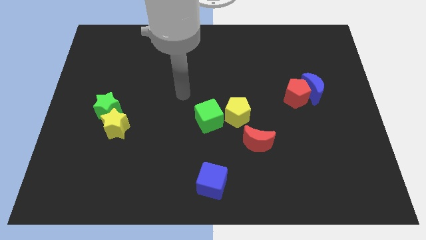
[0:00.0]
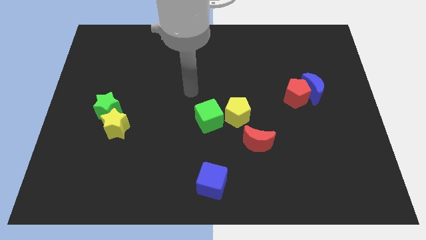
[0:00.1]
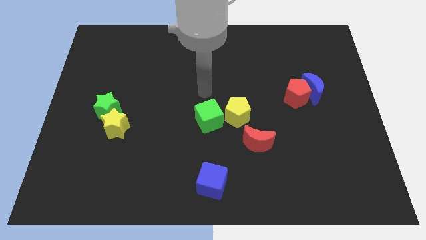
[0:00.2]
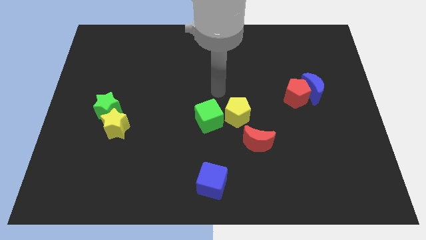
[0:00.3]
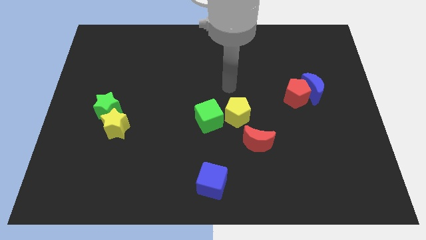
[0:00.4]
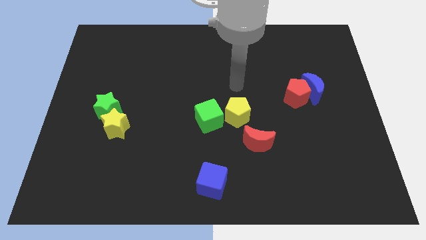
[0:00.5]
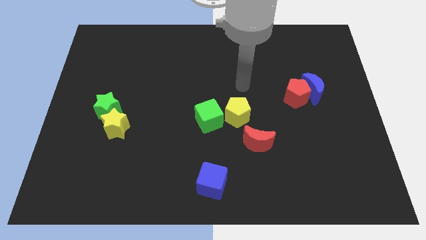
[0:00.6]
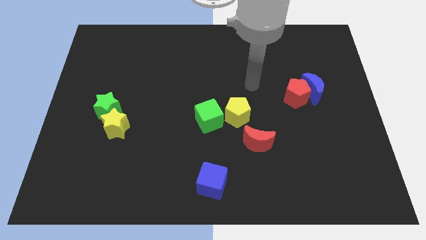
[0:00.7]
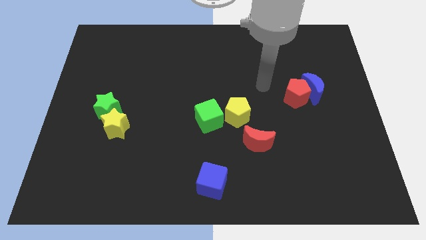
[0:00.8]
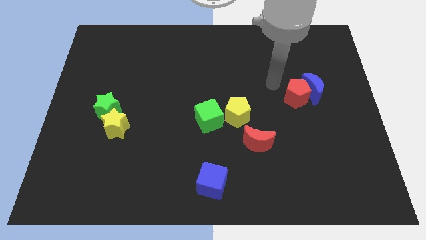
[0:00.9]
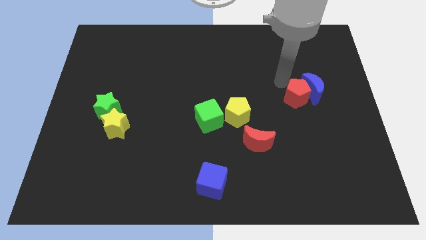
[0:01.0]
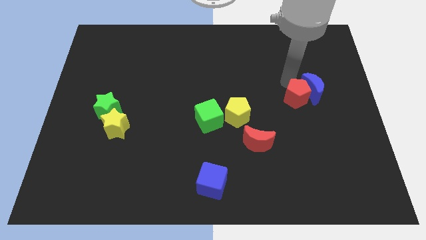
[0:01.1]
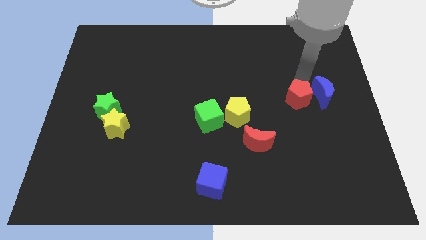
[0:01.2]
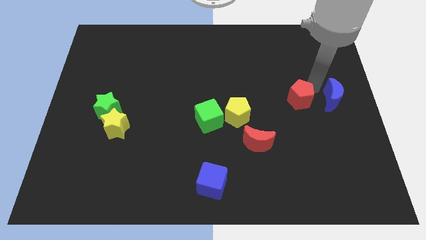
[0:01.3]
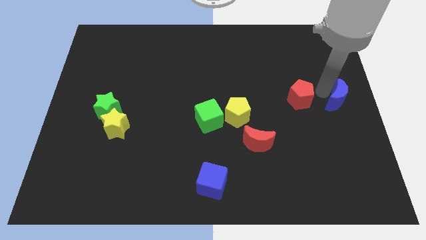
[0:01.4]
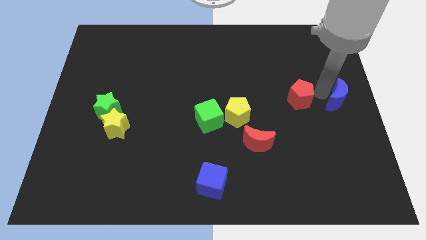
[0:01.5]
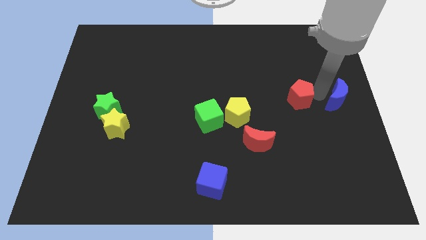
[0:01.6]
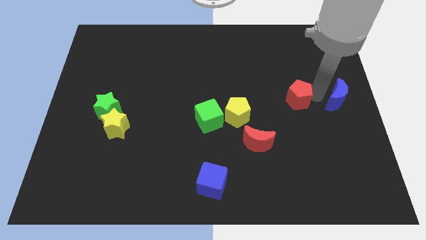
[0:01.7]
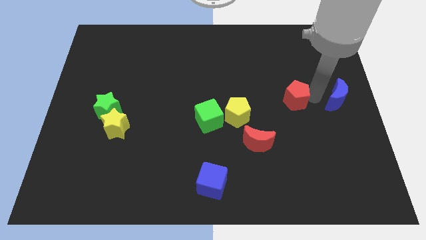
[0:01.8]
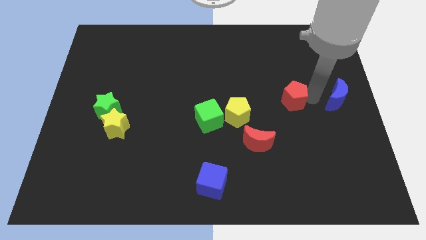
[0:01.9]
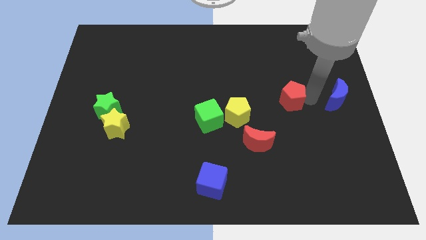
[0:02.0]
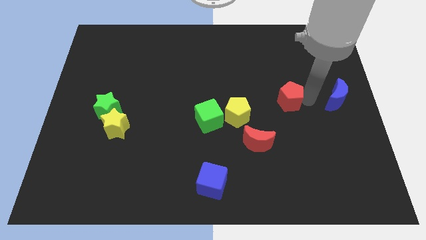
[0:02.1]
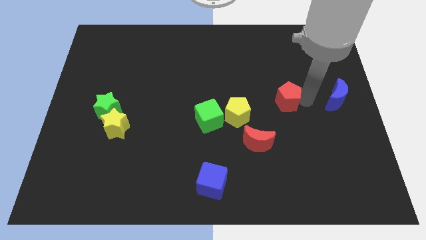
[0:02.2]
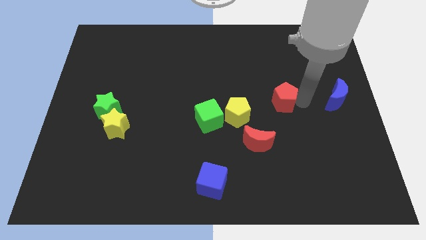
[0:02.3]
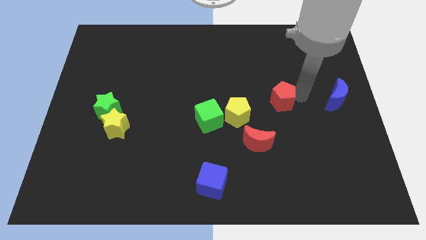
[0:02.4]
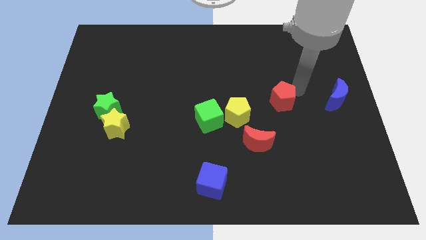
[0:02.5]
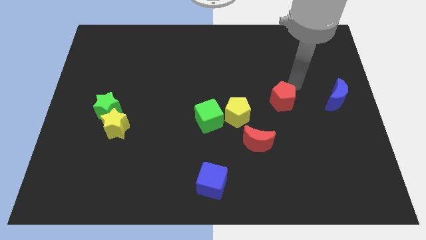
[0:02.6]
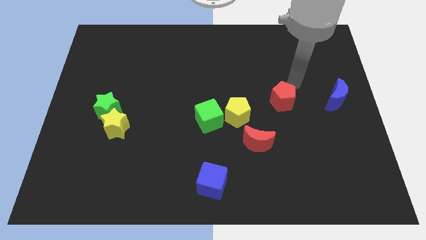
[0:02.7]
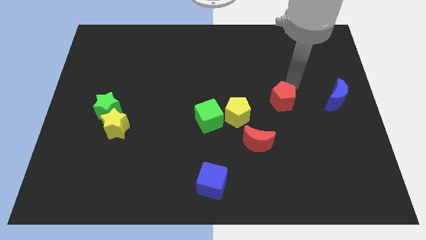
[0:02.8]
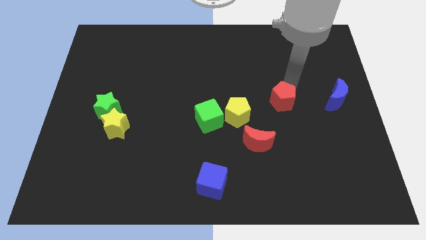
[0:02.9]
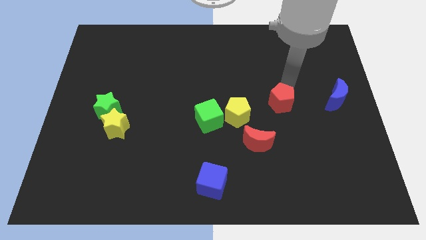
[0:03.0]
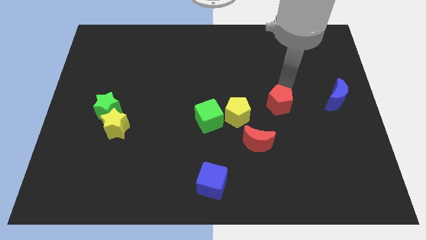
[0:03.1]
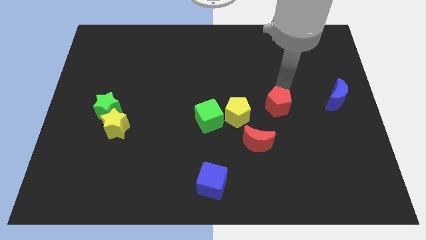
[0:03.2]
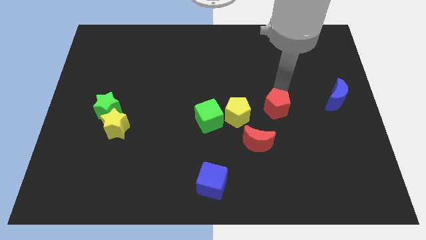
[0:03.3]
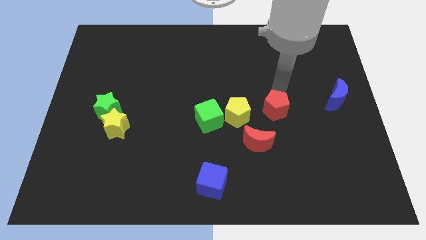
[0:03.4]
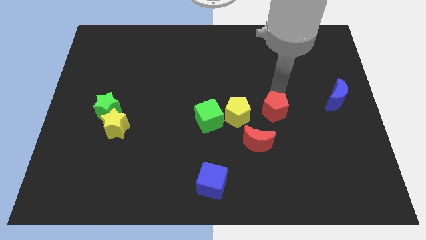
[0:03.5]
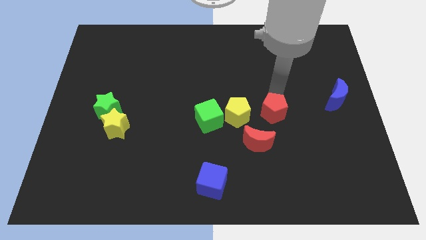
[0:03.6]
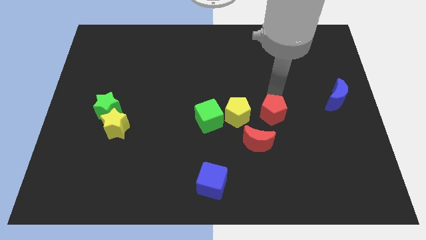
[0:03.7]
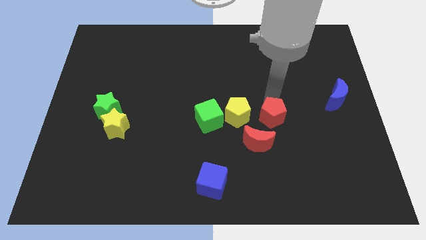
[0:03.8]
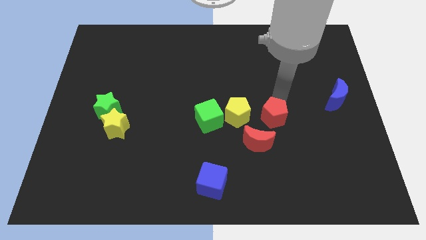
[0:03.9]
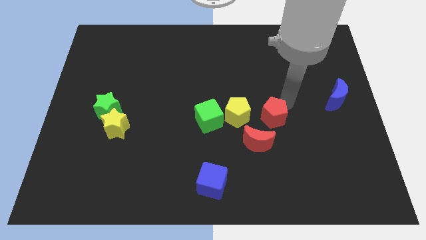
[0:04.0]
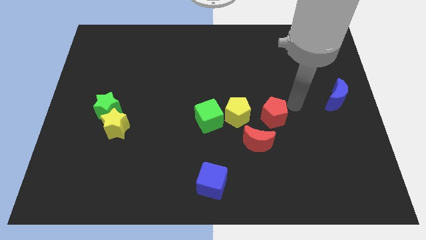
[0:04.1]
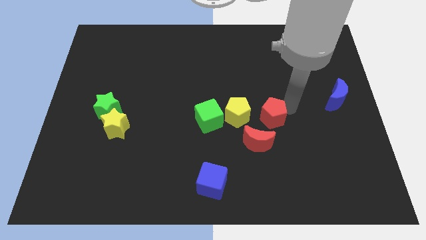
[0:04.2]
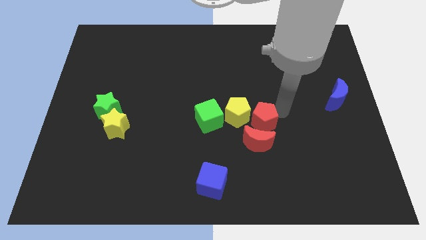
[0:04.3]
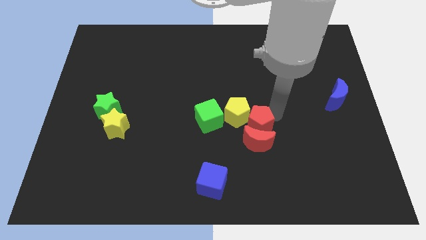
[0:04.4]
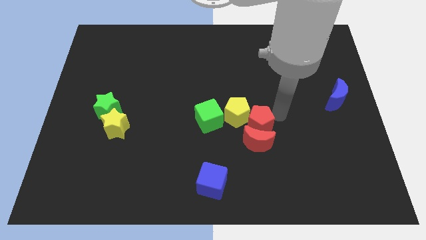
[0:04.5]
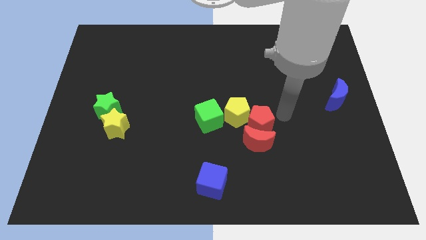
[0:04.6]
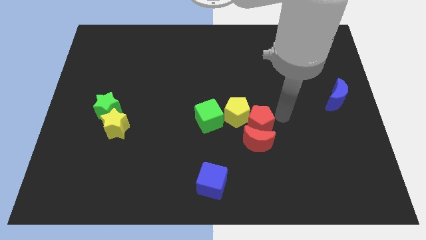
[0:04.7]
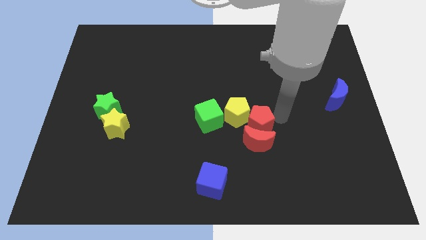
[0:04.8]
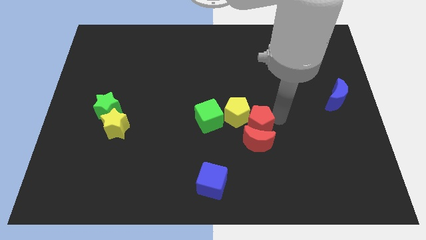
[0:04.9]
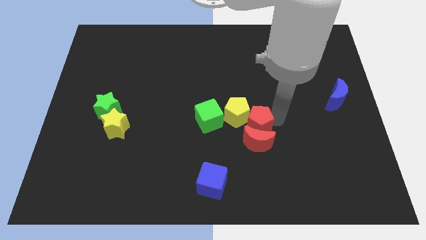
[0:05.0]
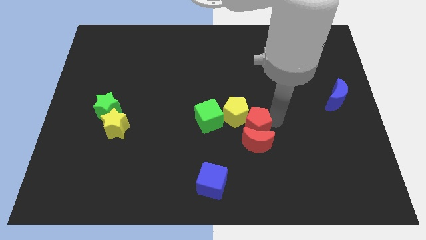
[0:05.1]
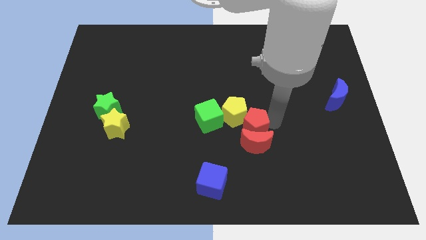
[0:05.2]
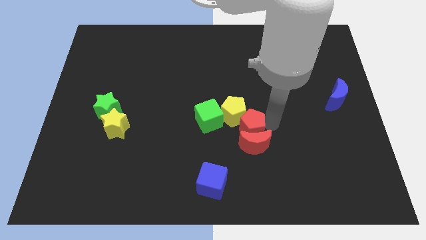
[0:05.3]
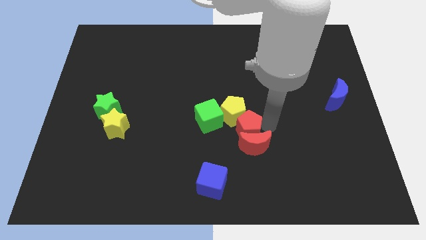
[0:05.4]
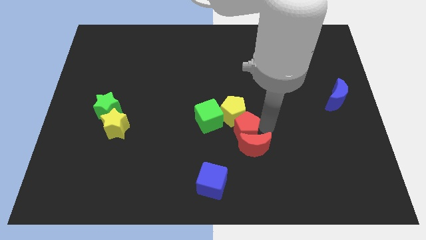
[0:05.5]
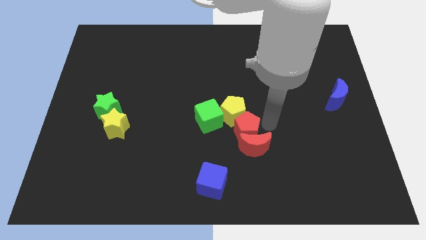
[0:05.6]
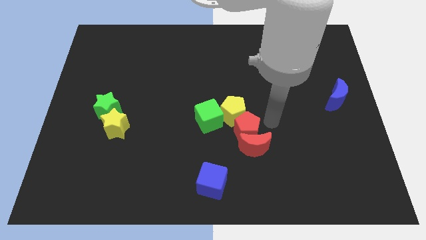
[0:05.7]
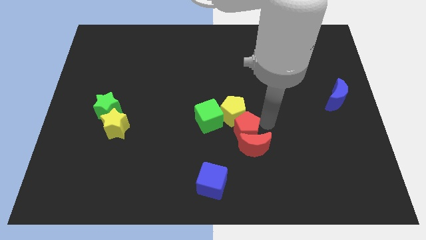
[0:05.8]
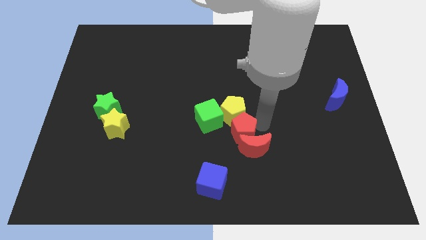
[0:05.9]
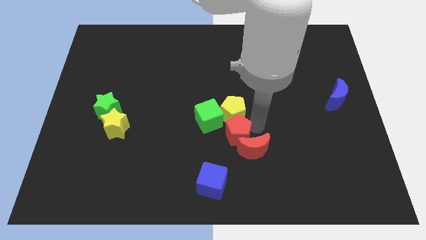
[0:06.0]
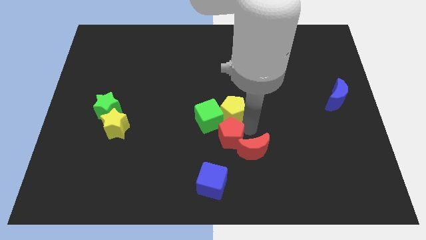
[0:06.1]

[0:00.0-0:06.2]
move the red pentagon to the bottom side of the green cube

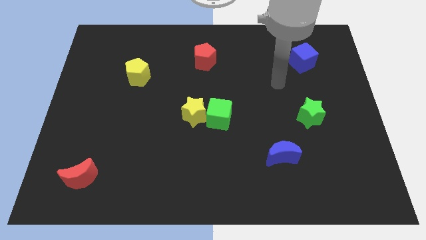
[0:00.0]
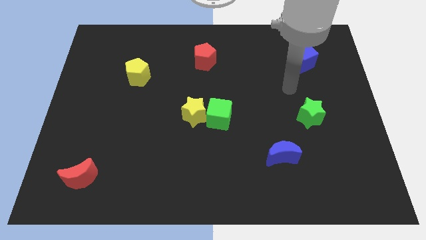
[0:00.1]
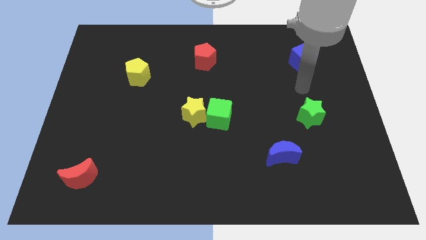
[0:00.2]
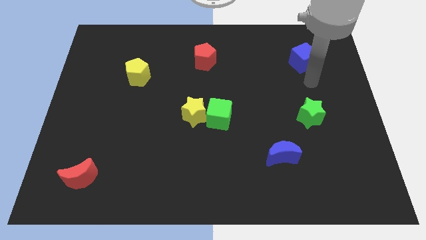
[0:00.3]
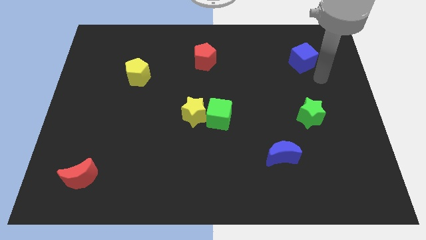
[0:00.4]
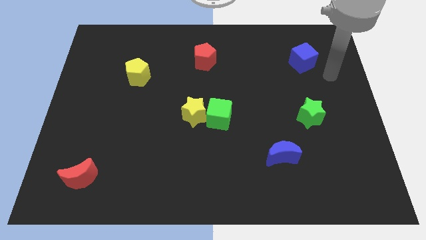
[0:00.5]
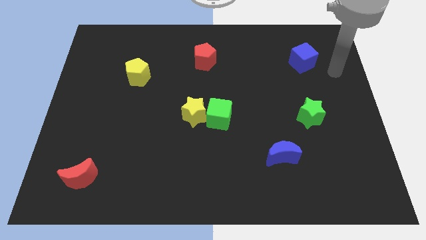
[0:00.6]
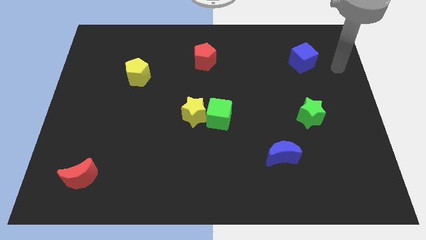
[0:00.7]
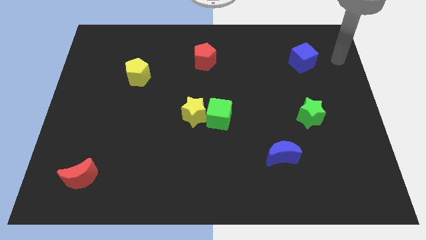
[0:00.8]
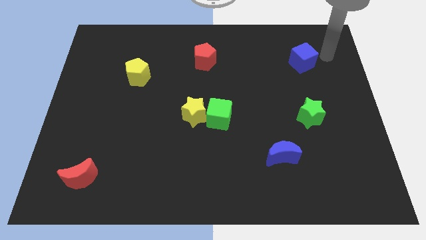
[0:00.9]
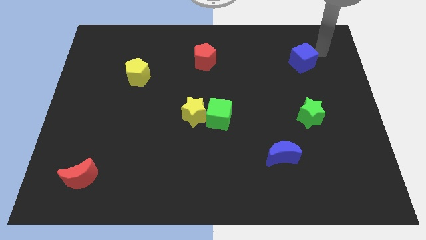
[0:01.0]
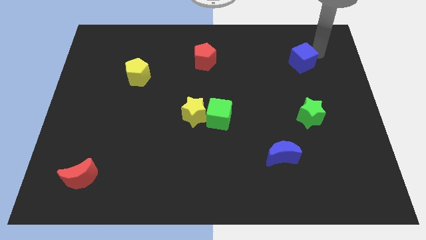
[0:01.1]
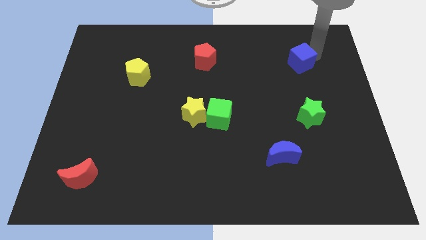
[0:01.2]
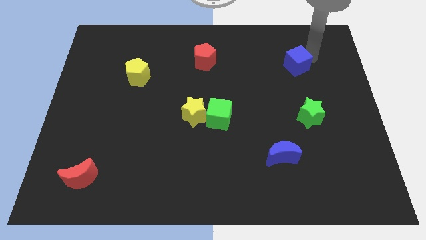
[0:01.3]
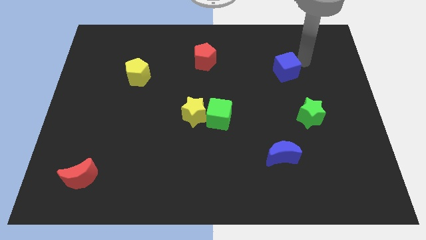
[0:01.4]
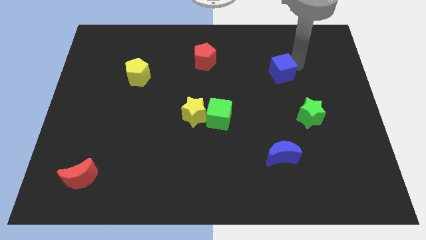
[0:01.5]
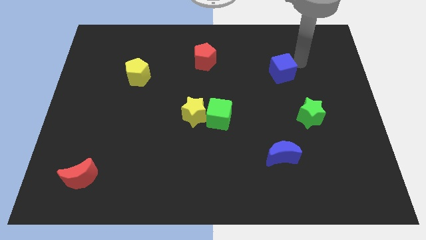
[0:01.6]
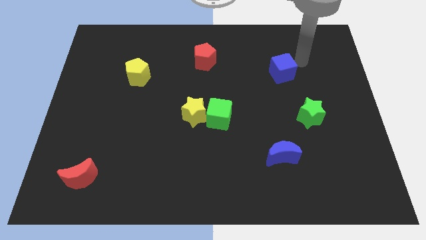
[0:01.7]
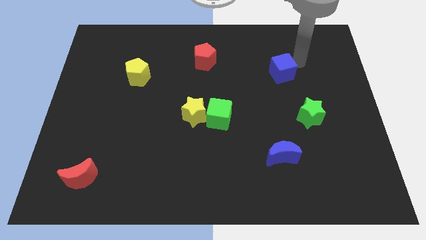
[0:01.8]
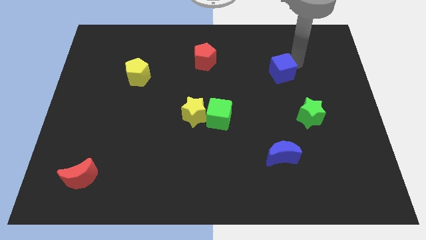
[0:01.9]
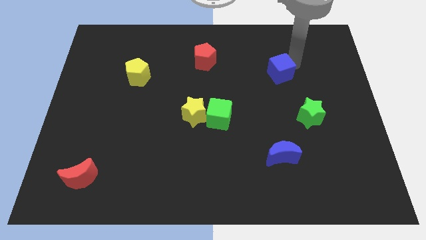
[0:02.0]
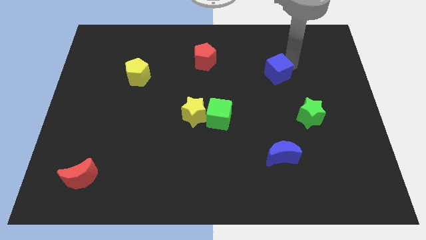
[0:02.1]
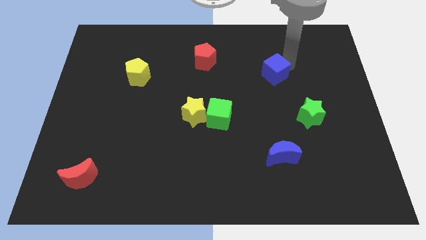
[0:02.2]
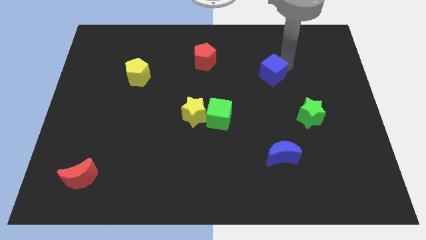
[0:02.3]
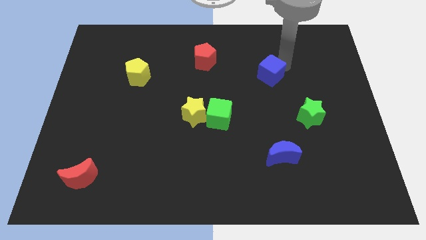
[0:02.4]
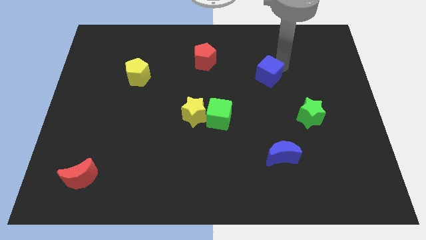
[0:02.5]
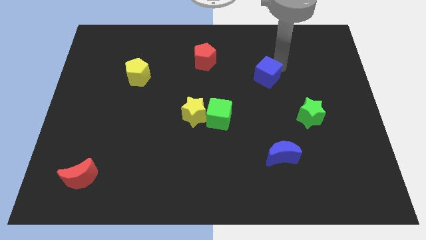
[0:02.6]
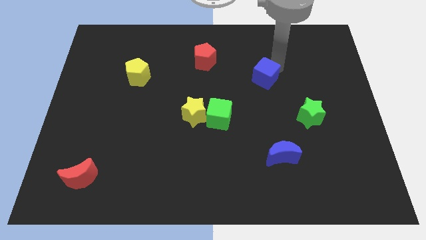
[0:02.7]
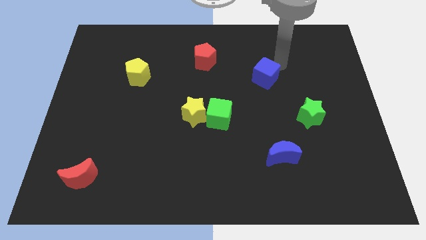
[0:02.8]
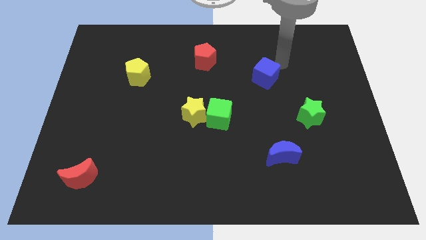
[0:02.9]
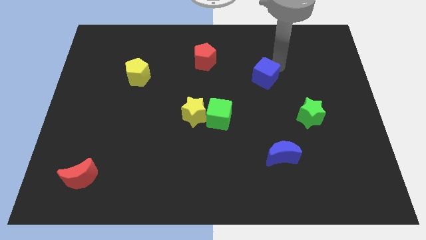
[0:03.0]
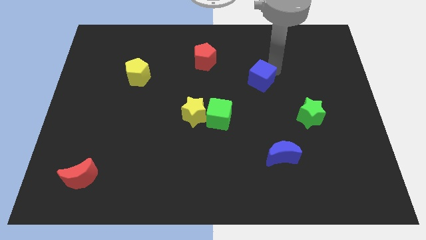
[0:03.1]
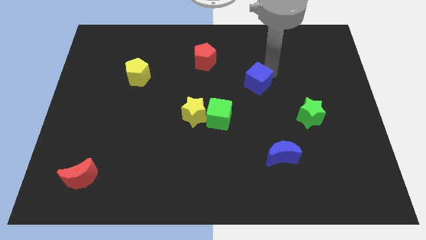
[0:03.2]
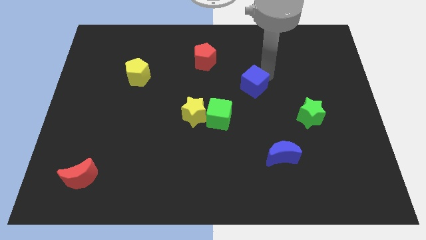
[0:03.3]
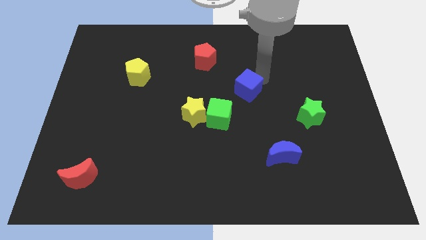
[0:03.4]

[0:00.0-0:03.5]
slide the blue cube to the top right side of the green cube
